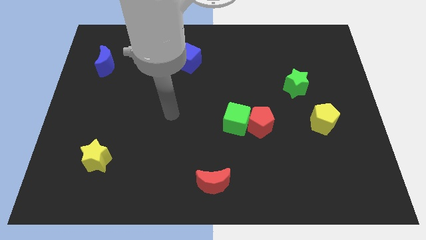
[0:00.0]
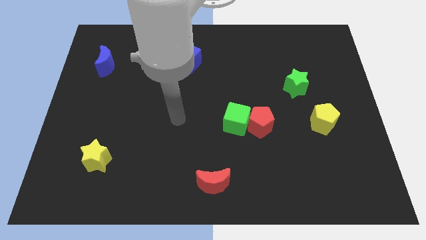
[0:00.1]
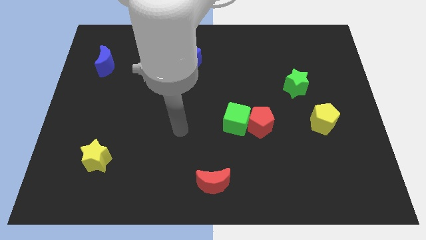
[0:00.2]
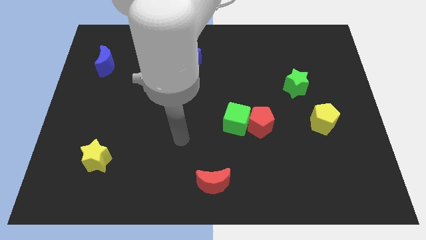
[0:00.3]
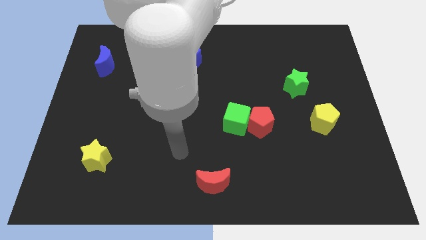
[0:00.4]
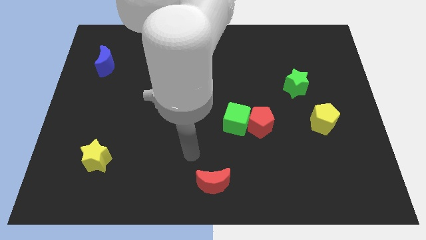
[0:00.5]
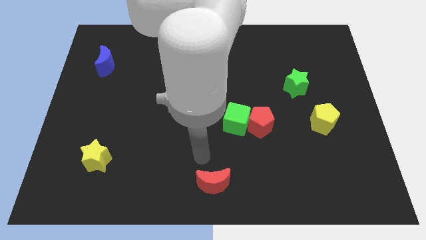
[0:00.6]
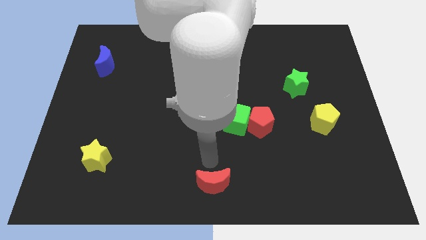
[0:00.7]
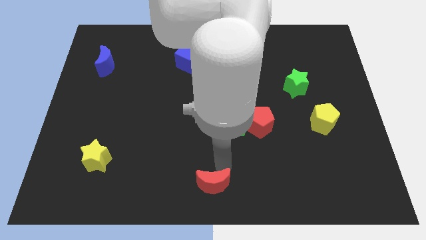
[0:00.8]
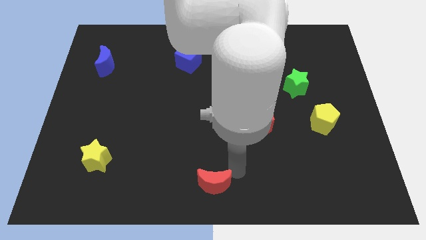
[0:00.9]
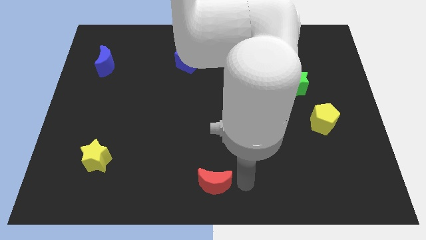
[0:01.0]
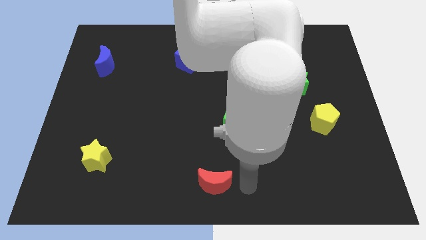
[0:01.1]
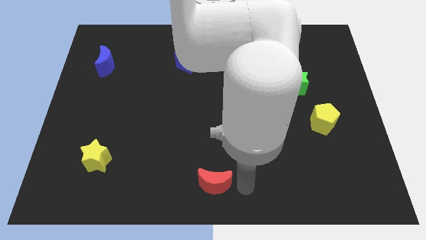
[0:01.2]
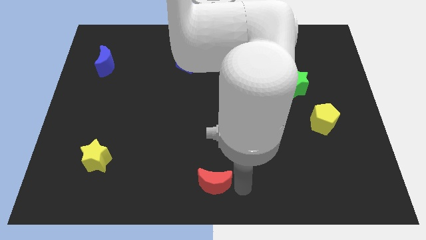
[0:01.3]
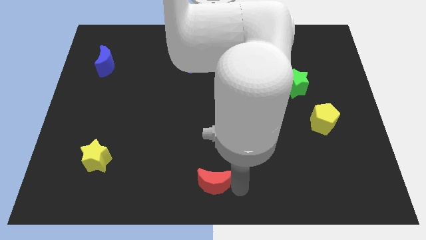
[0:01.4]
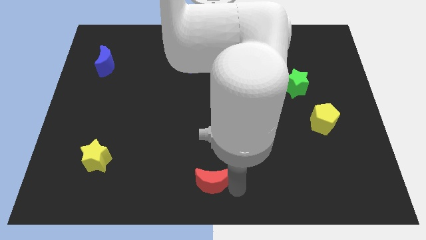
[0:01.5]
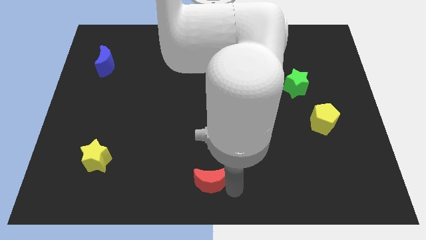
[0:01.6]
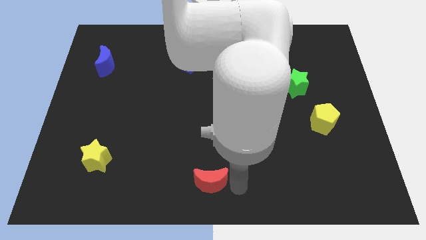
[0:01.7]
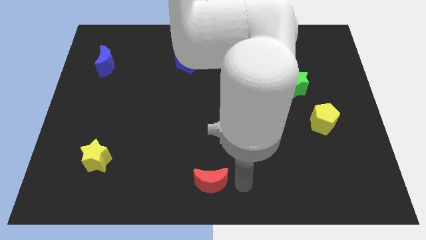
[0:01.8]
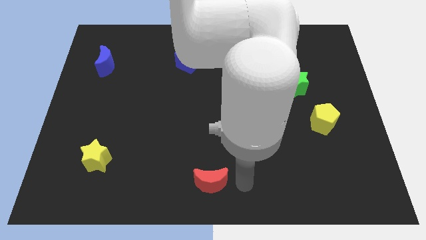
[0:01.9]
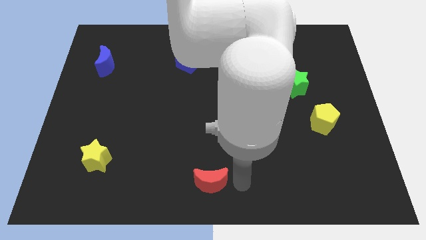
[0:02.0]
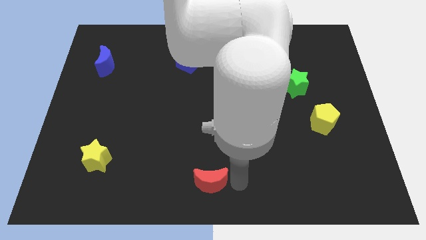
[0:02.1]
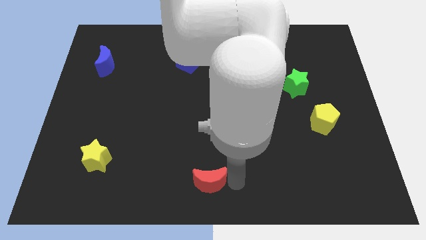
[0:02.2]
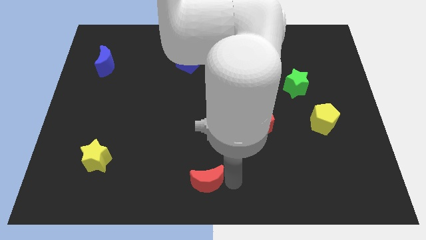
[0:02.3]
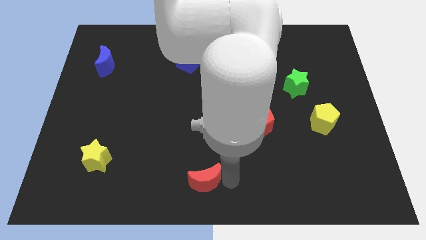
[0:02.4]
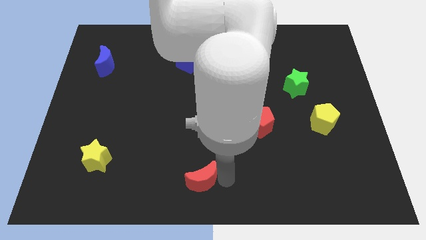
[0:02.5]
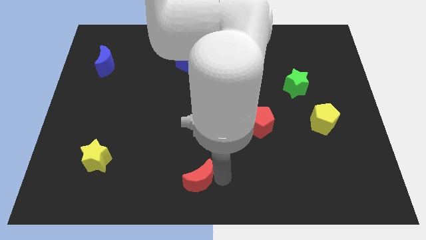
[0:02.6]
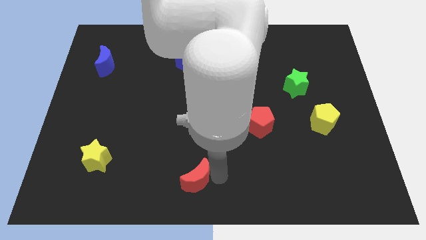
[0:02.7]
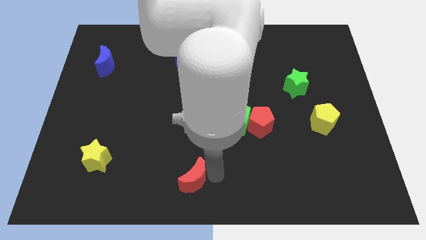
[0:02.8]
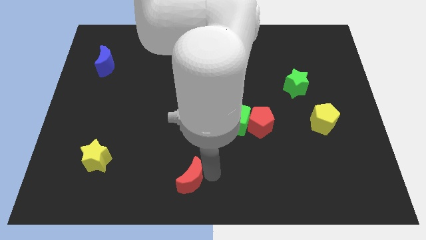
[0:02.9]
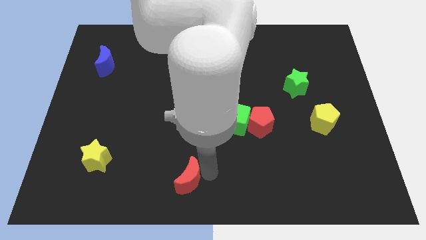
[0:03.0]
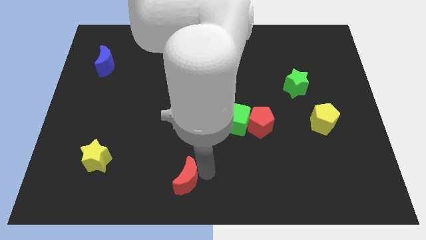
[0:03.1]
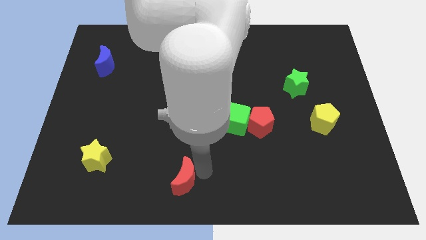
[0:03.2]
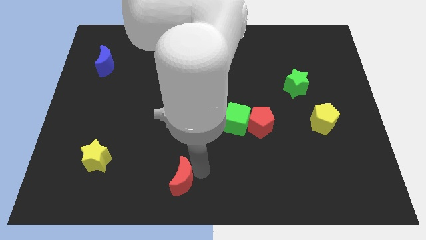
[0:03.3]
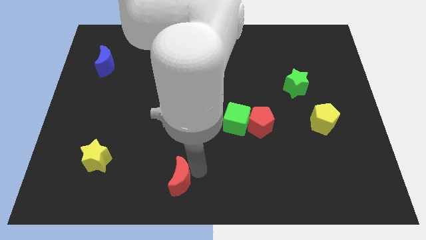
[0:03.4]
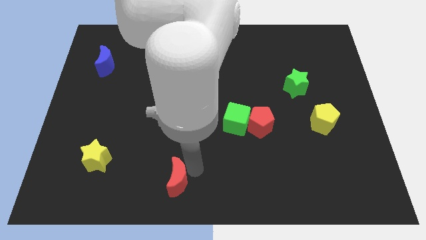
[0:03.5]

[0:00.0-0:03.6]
move the red moon slightly to the left

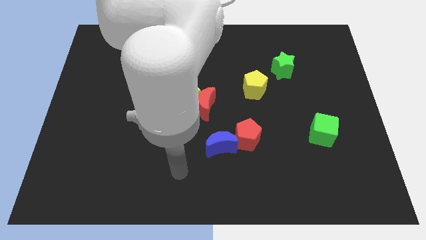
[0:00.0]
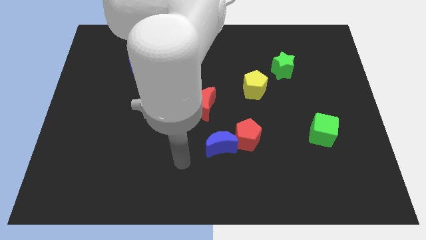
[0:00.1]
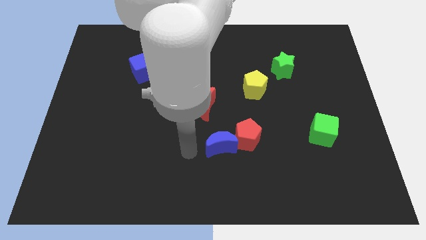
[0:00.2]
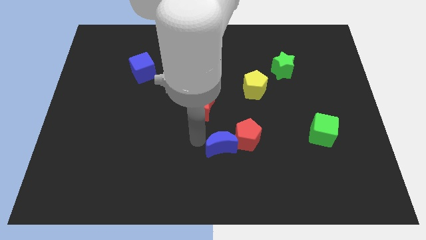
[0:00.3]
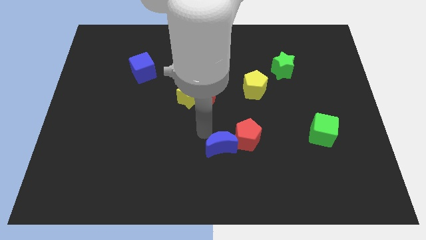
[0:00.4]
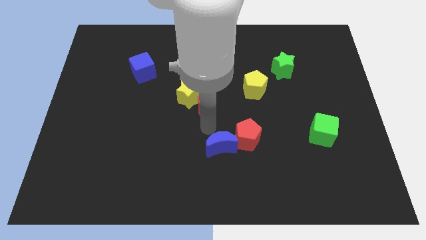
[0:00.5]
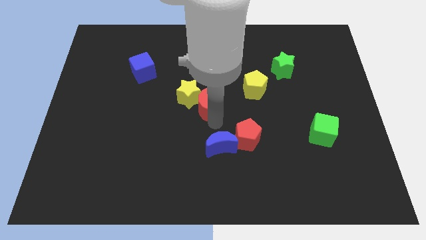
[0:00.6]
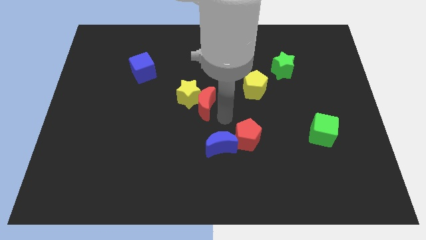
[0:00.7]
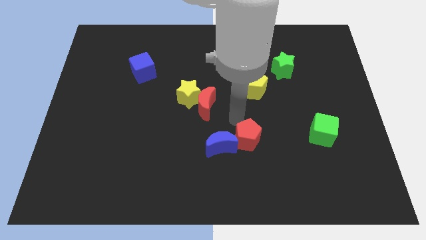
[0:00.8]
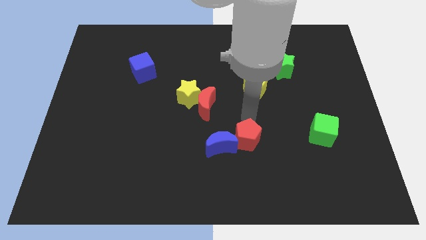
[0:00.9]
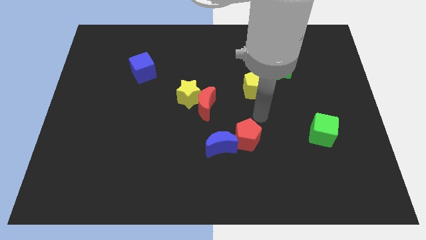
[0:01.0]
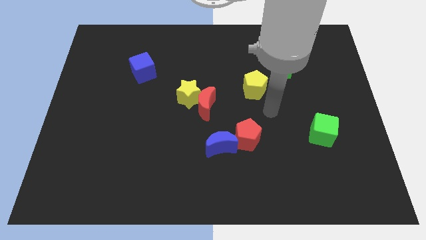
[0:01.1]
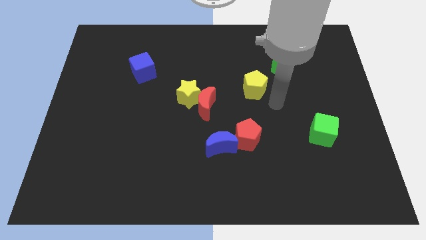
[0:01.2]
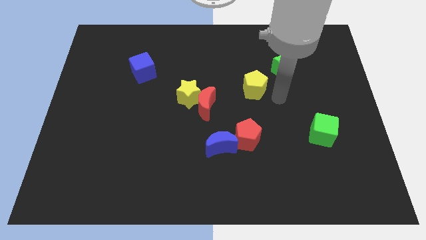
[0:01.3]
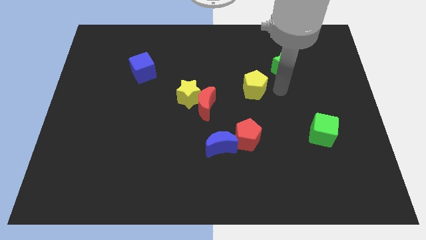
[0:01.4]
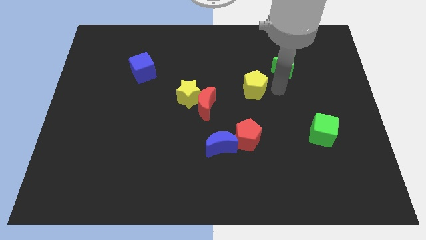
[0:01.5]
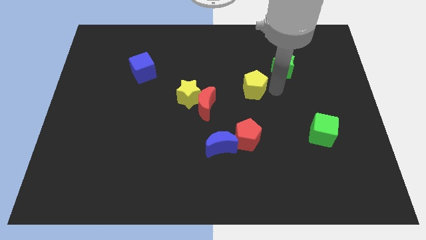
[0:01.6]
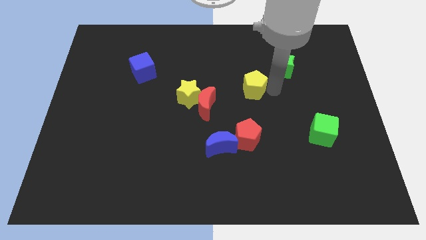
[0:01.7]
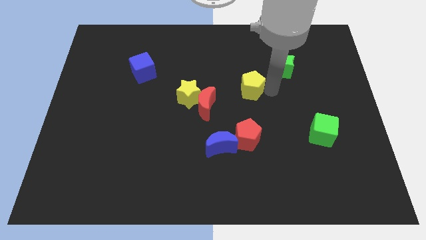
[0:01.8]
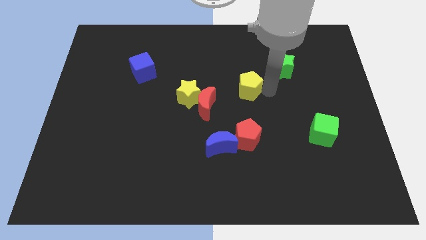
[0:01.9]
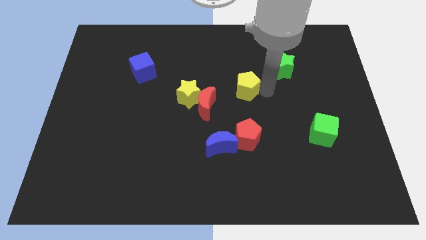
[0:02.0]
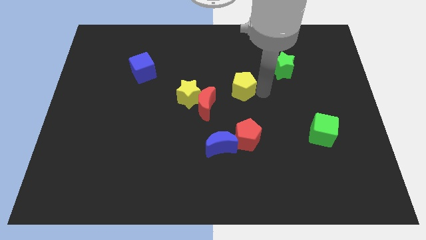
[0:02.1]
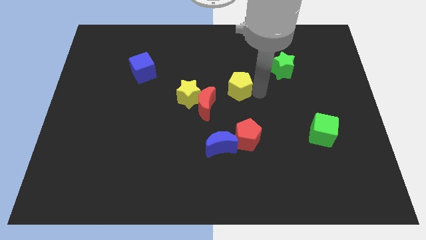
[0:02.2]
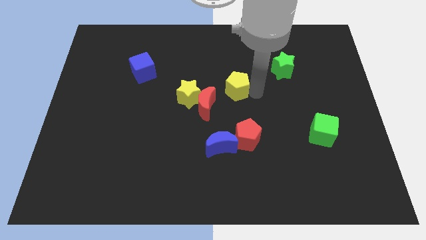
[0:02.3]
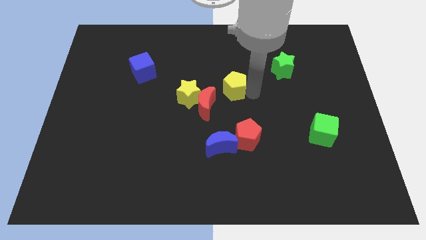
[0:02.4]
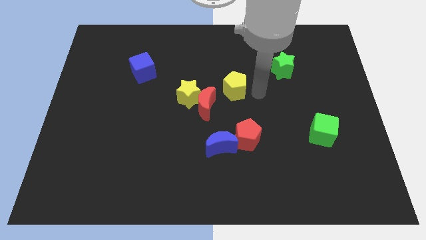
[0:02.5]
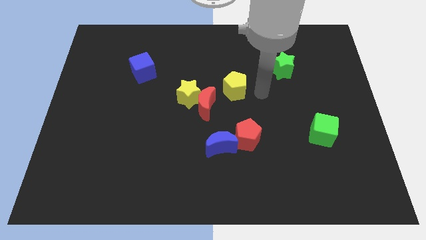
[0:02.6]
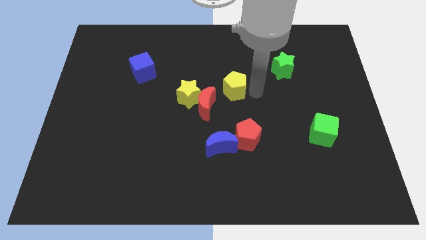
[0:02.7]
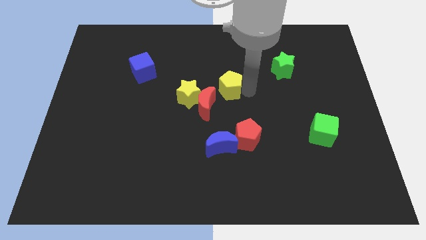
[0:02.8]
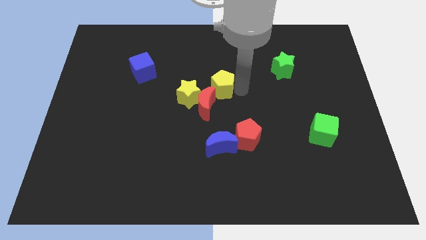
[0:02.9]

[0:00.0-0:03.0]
slide the yellow pentagon to the left a bit

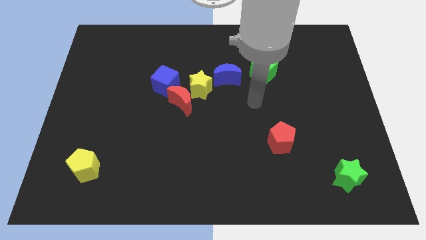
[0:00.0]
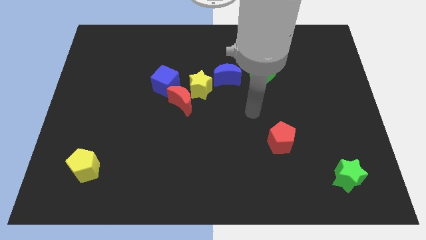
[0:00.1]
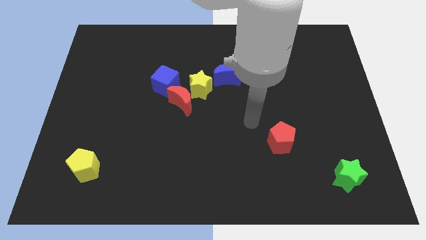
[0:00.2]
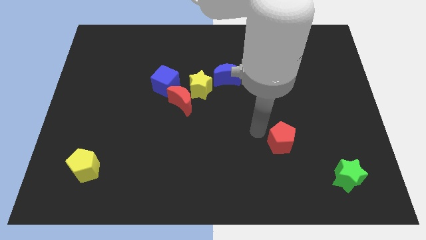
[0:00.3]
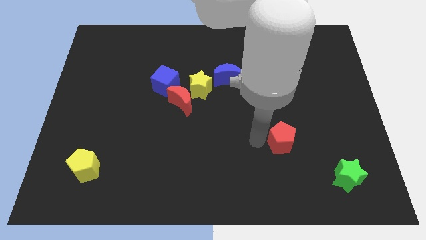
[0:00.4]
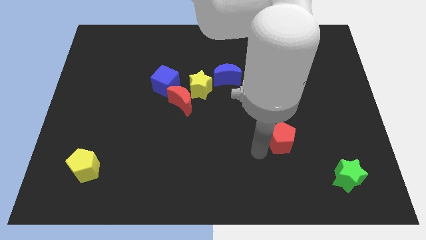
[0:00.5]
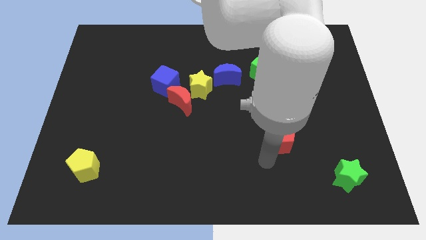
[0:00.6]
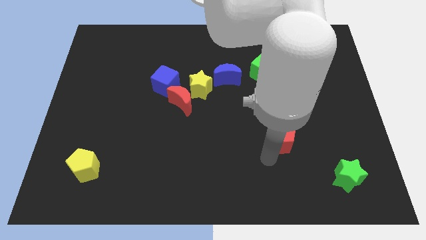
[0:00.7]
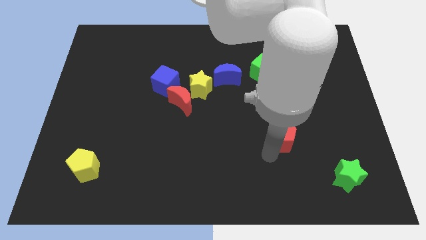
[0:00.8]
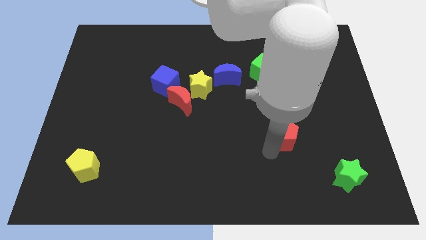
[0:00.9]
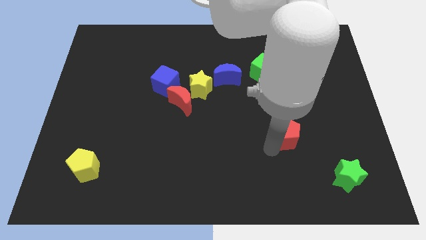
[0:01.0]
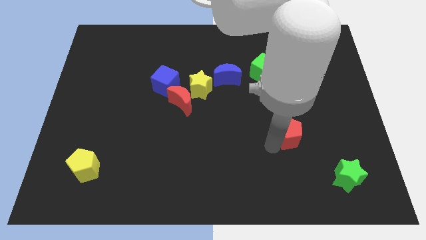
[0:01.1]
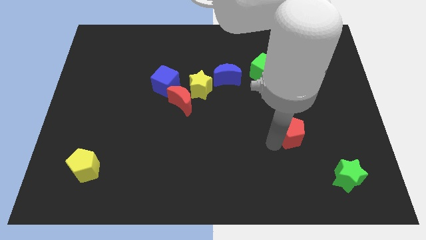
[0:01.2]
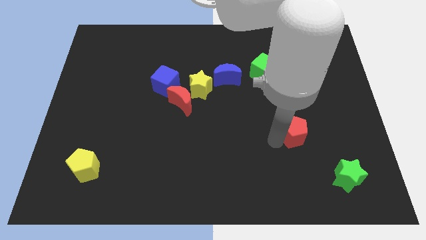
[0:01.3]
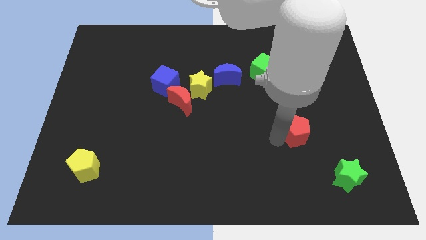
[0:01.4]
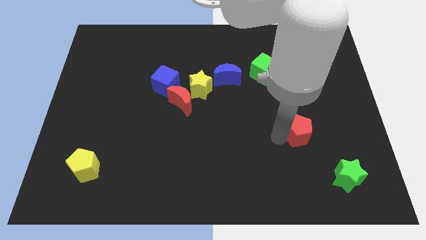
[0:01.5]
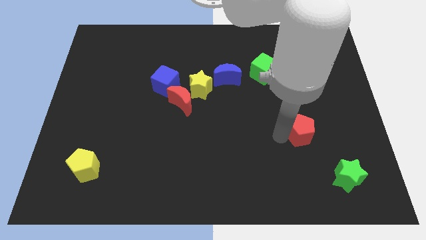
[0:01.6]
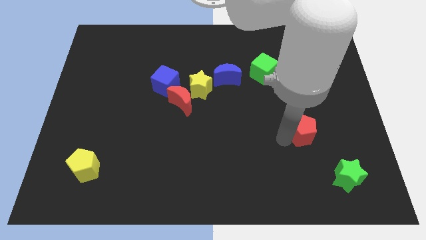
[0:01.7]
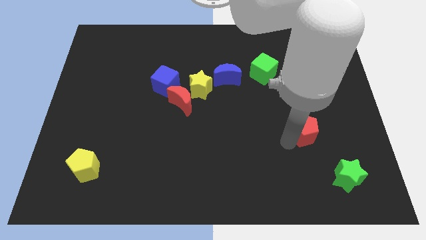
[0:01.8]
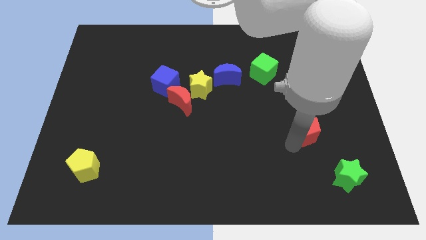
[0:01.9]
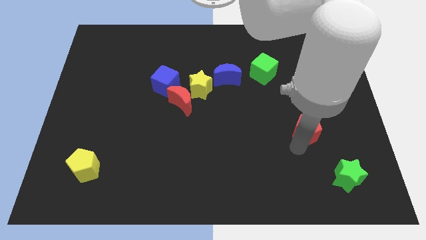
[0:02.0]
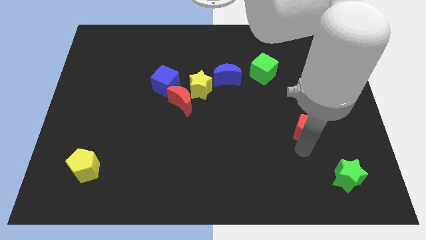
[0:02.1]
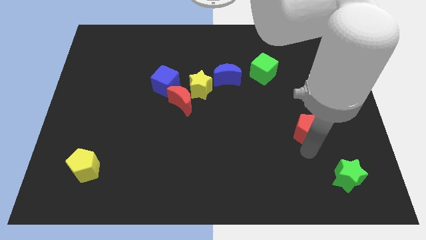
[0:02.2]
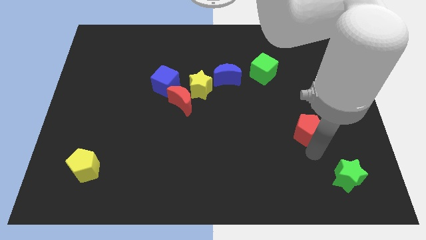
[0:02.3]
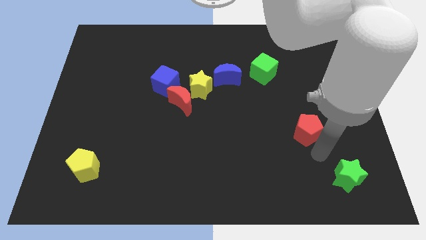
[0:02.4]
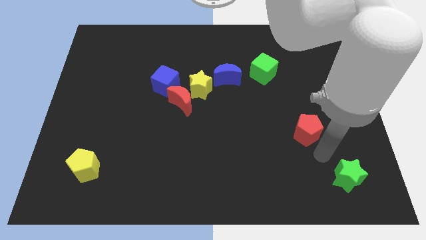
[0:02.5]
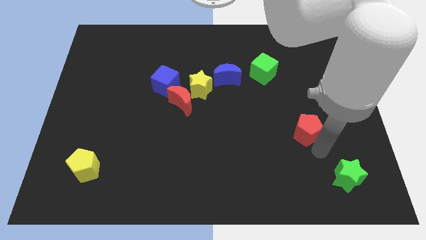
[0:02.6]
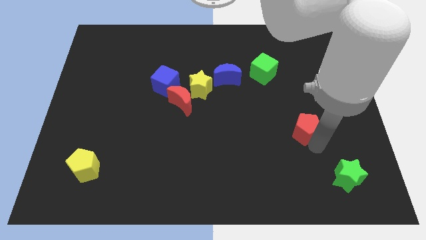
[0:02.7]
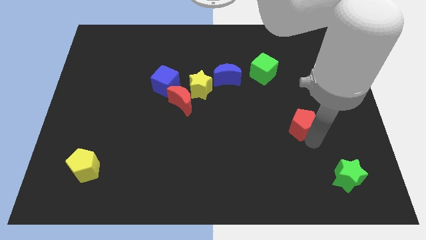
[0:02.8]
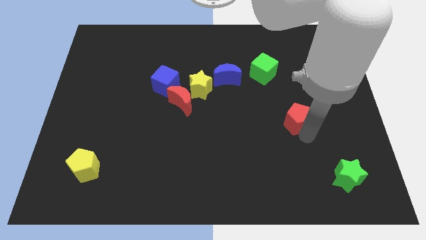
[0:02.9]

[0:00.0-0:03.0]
move the red pentagon slightly upwards and right
